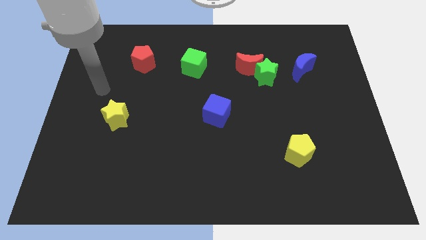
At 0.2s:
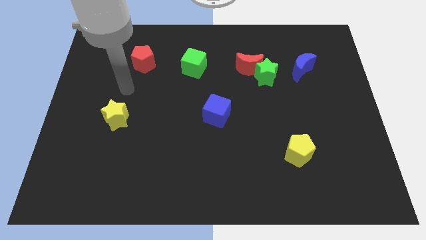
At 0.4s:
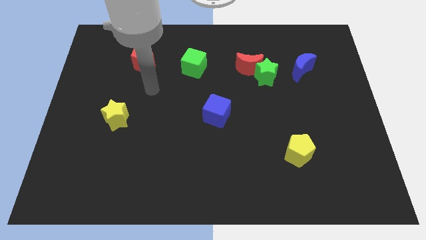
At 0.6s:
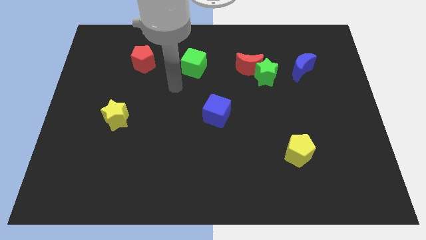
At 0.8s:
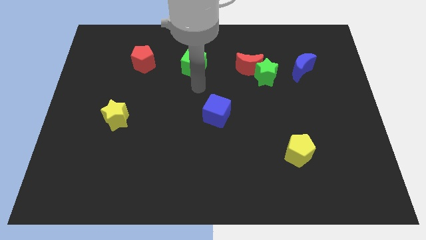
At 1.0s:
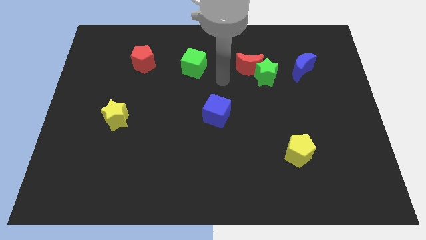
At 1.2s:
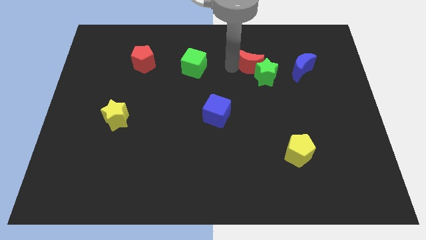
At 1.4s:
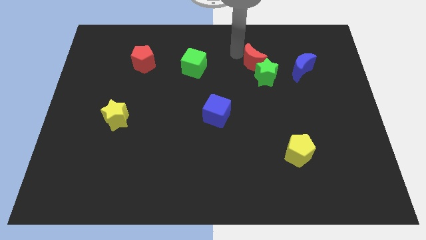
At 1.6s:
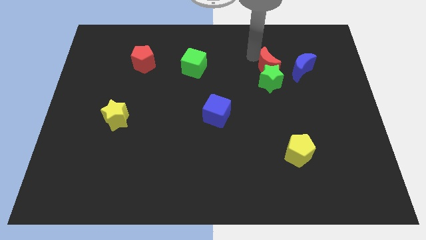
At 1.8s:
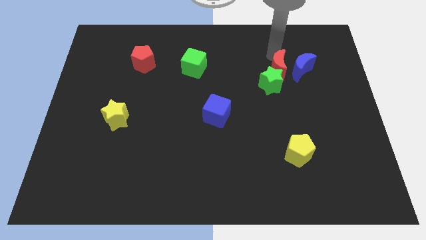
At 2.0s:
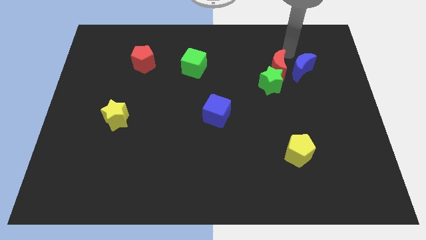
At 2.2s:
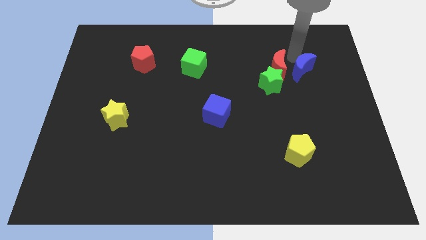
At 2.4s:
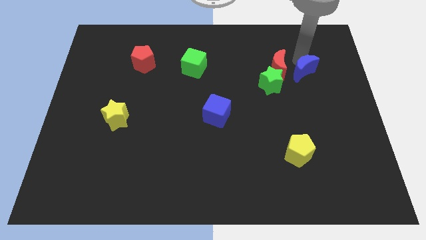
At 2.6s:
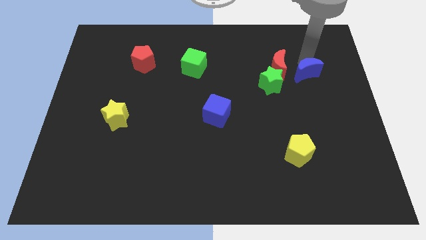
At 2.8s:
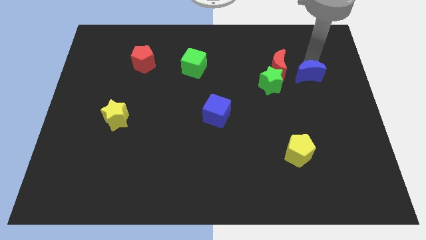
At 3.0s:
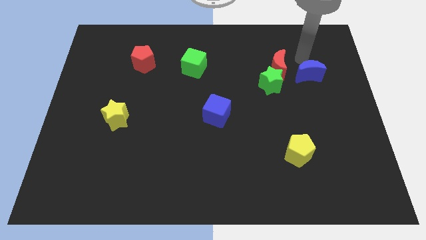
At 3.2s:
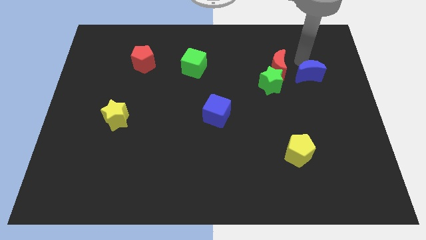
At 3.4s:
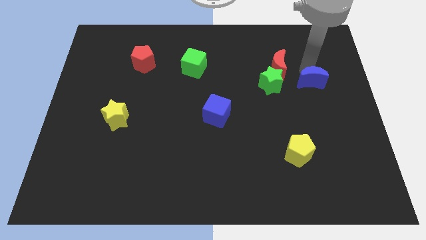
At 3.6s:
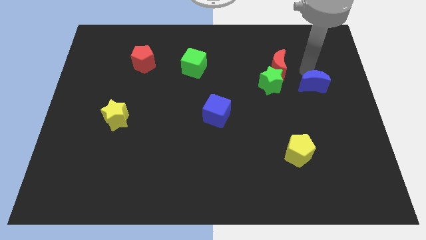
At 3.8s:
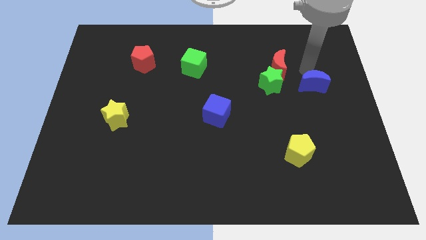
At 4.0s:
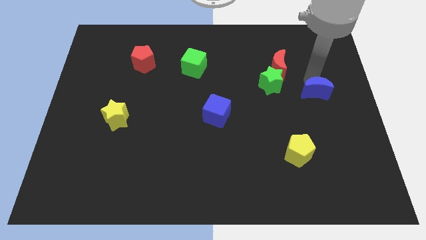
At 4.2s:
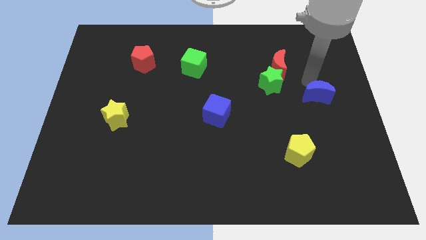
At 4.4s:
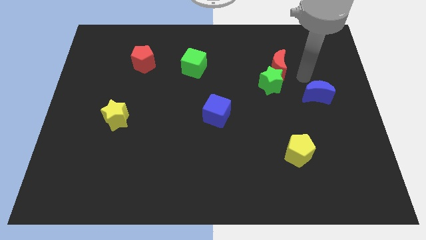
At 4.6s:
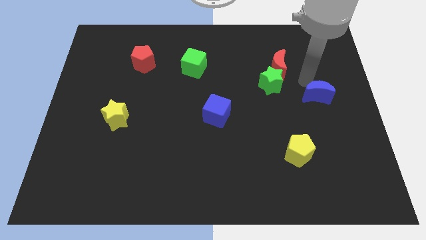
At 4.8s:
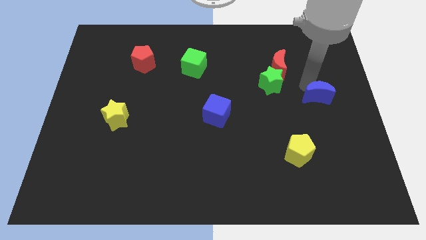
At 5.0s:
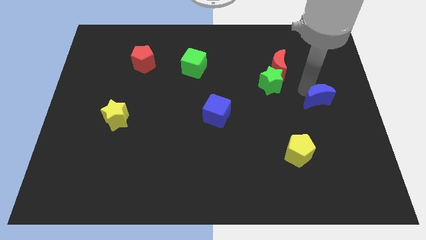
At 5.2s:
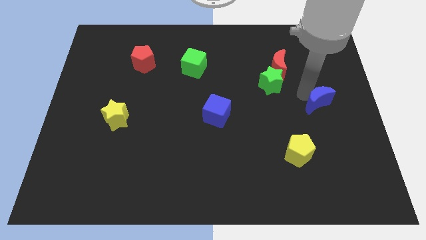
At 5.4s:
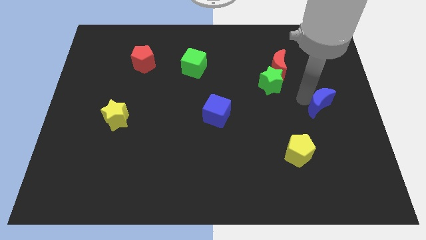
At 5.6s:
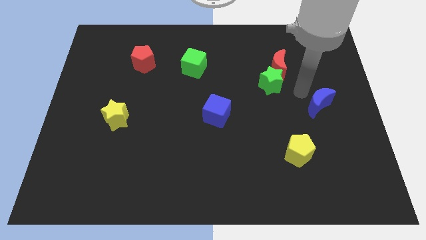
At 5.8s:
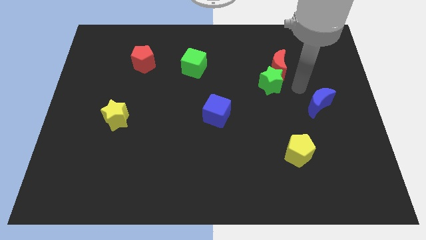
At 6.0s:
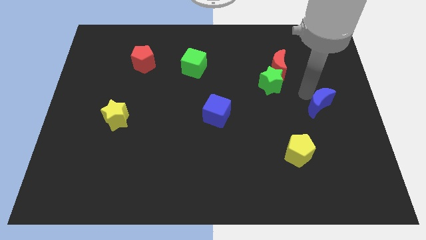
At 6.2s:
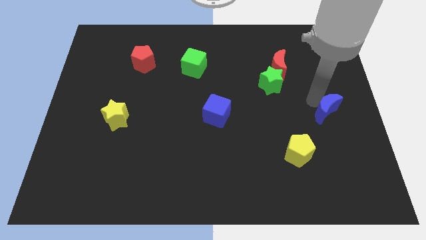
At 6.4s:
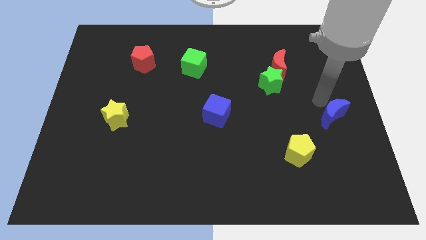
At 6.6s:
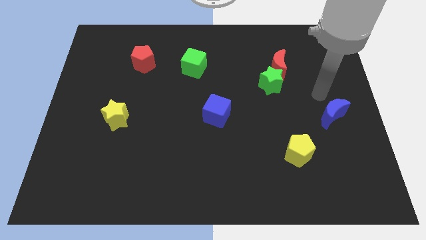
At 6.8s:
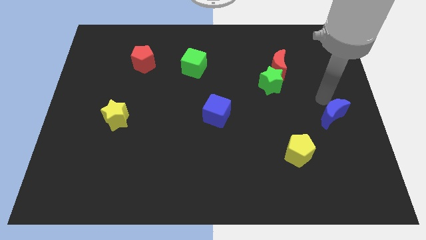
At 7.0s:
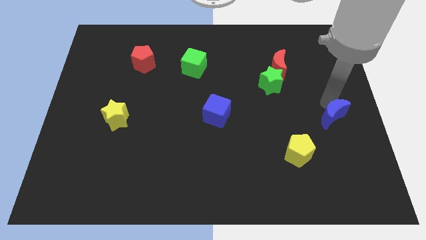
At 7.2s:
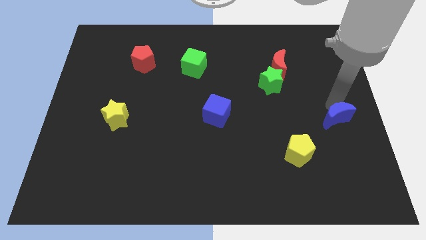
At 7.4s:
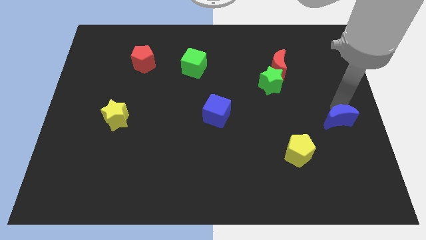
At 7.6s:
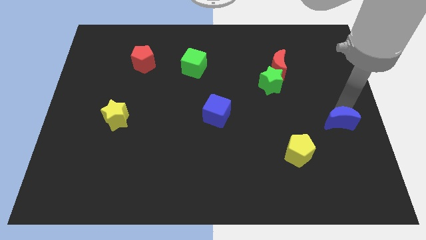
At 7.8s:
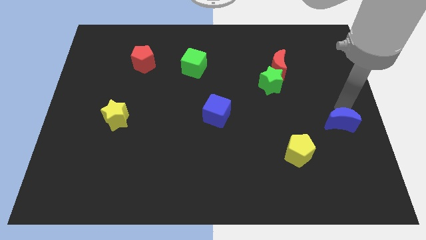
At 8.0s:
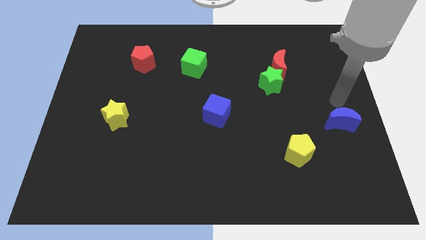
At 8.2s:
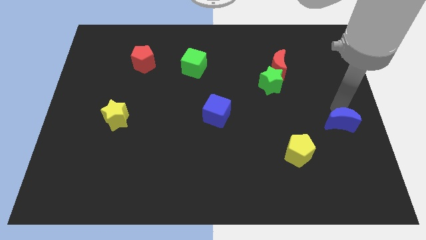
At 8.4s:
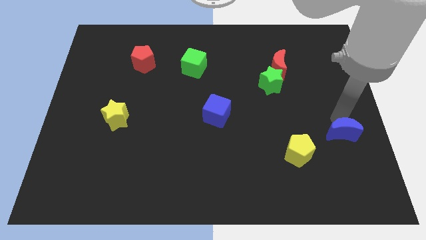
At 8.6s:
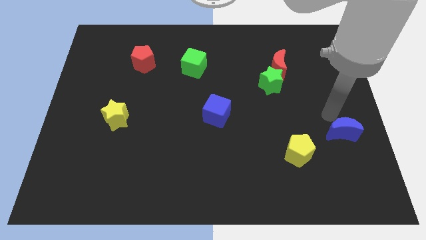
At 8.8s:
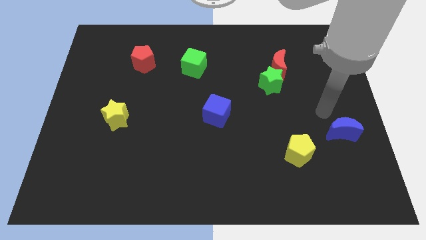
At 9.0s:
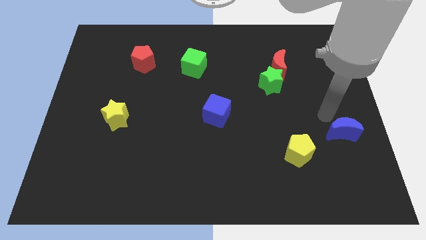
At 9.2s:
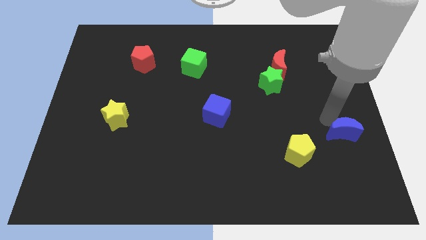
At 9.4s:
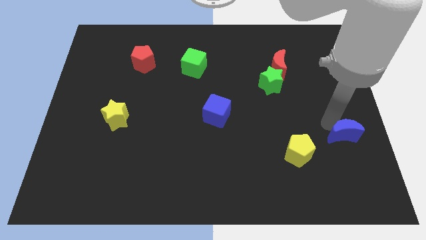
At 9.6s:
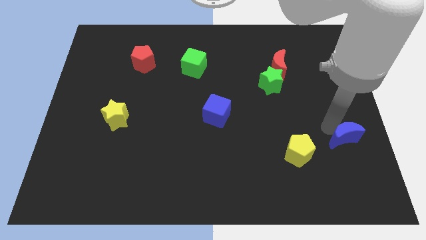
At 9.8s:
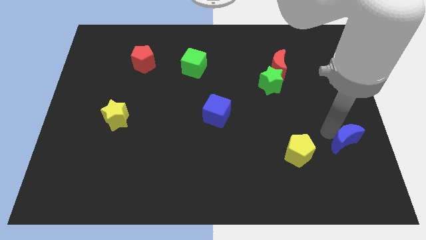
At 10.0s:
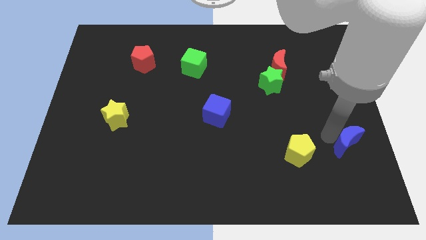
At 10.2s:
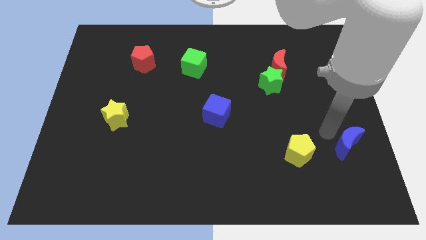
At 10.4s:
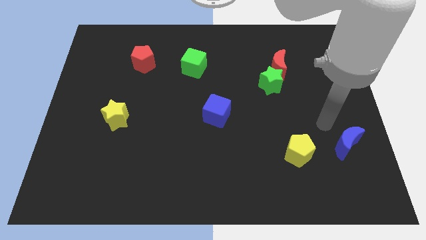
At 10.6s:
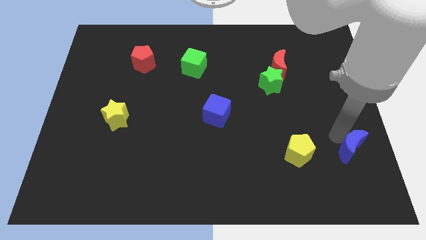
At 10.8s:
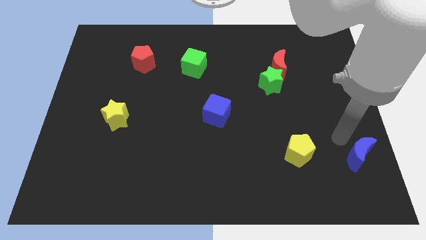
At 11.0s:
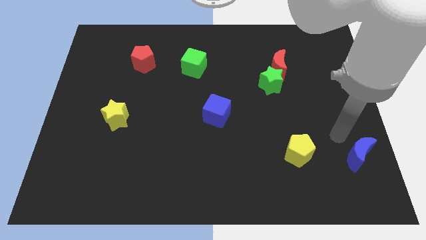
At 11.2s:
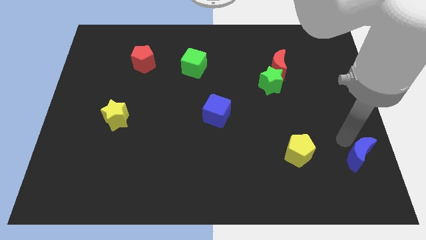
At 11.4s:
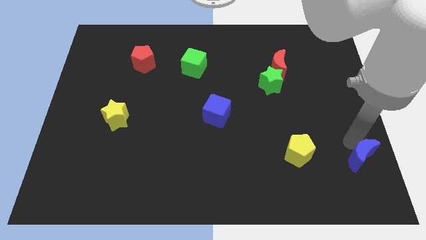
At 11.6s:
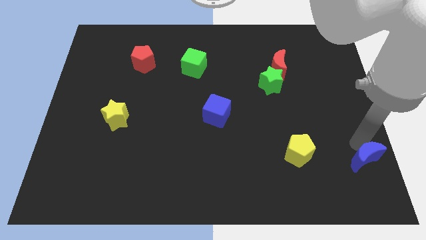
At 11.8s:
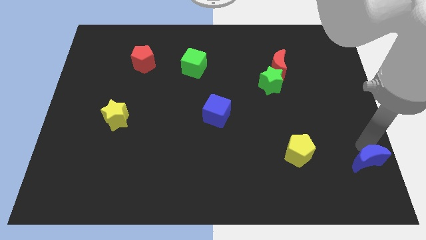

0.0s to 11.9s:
push the blue moon to the lower right corner

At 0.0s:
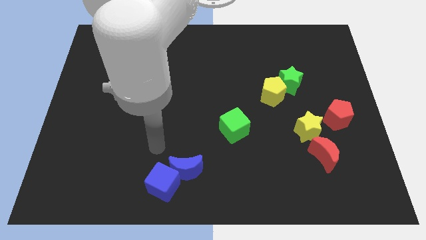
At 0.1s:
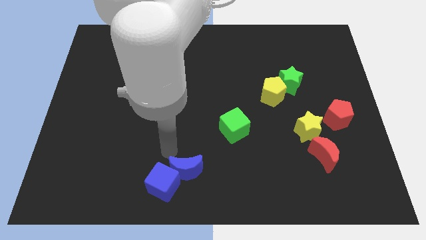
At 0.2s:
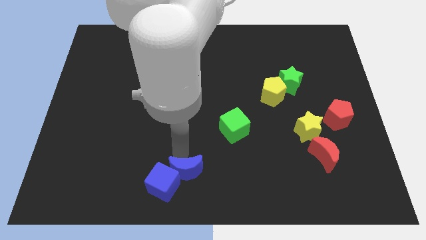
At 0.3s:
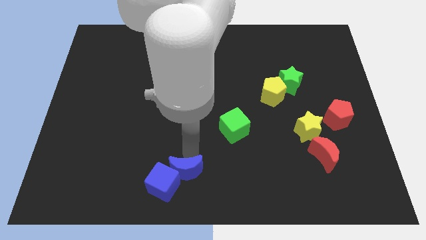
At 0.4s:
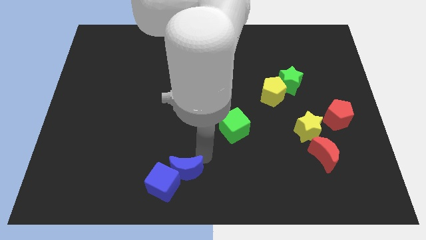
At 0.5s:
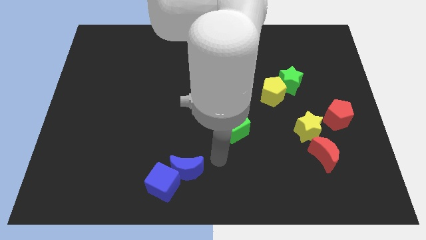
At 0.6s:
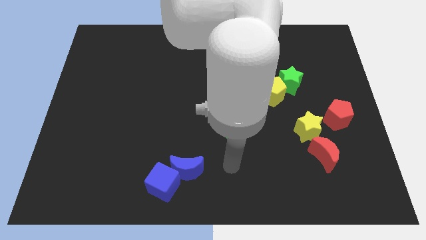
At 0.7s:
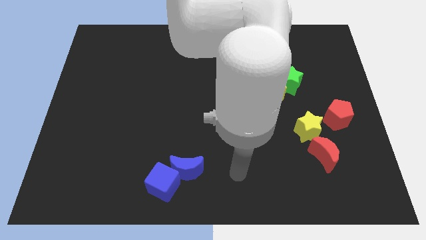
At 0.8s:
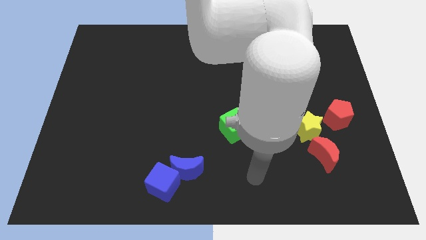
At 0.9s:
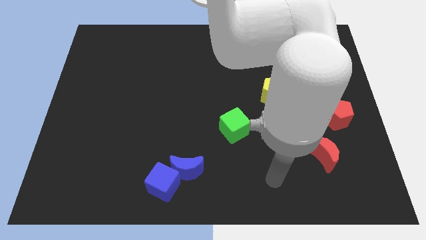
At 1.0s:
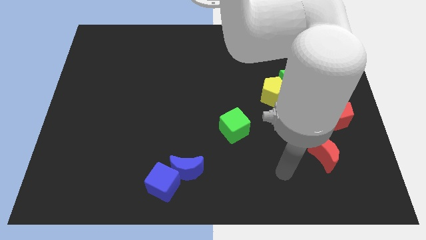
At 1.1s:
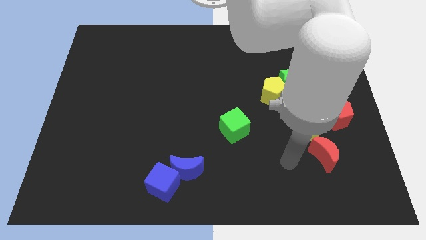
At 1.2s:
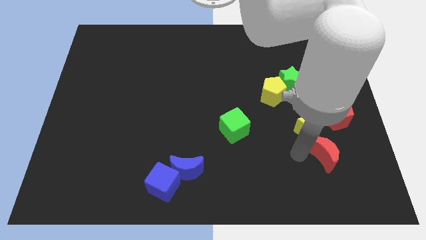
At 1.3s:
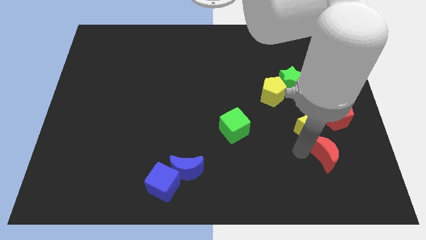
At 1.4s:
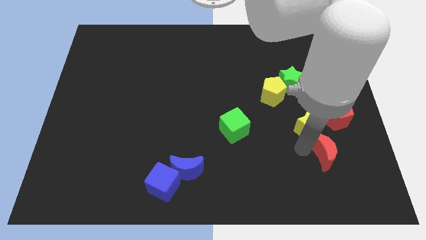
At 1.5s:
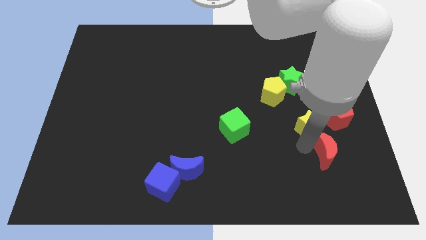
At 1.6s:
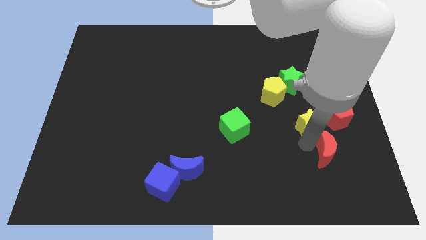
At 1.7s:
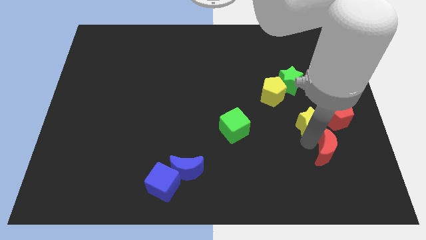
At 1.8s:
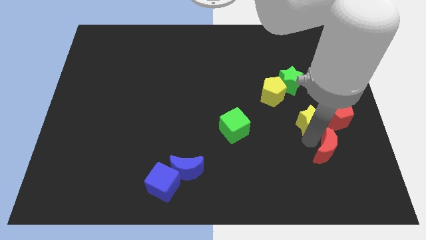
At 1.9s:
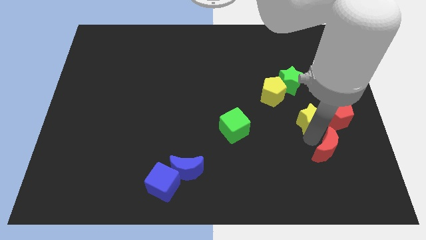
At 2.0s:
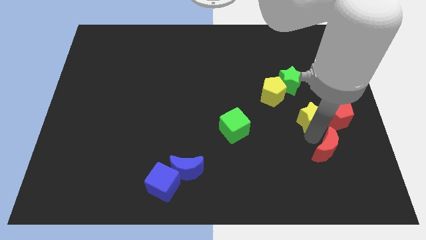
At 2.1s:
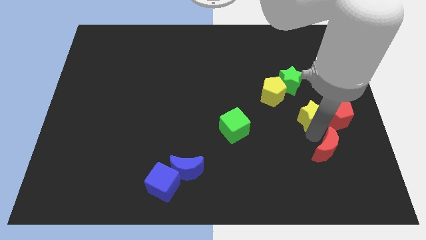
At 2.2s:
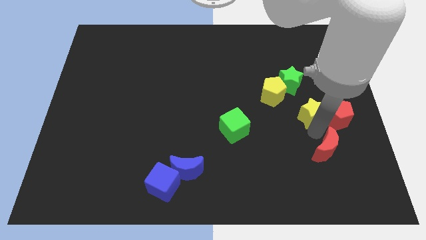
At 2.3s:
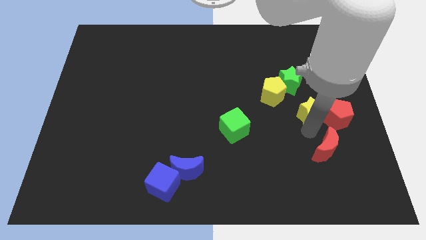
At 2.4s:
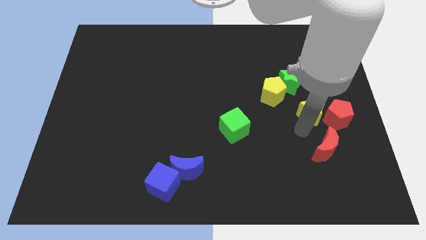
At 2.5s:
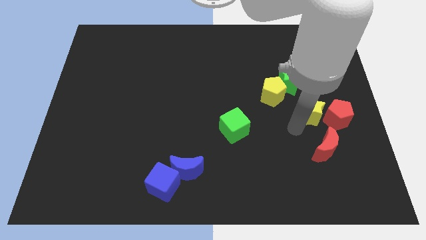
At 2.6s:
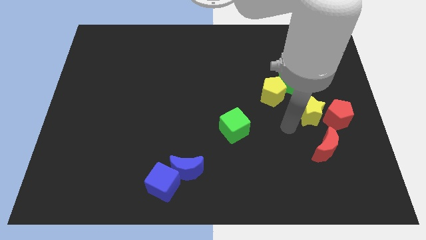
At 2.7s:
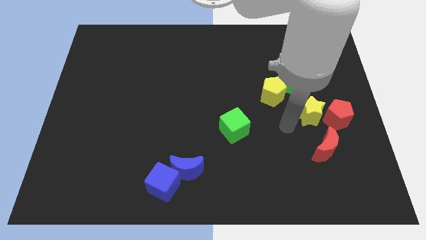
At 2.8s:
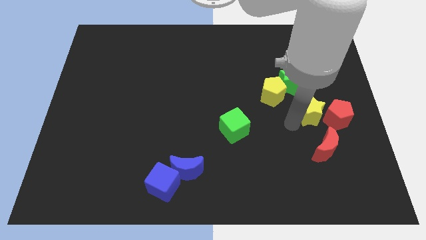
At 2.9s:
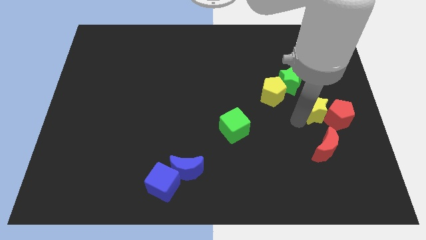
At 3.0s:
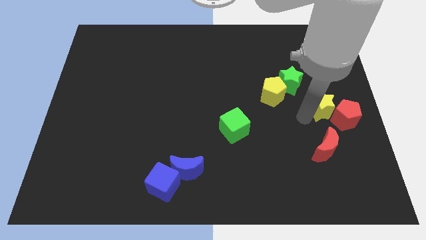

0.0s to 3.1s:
put the yellow star to the right side of the board
